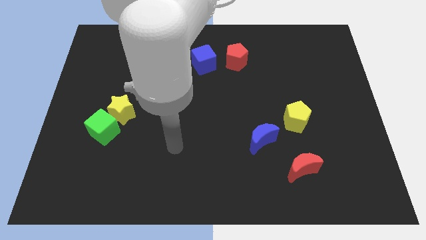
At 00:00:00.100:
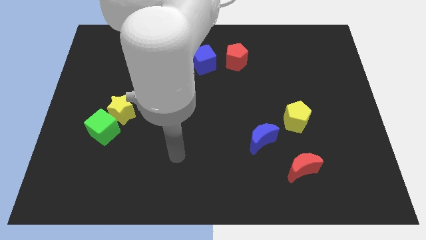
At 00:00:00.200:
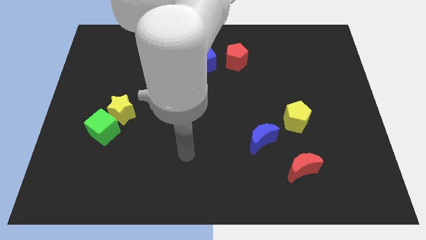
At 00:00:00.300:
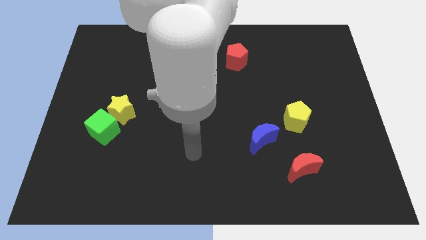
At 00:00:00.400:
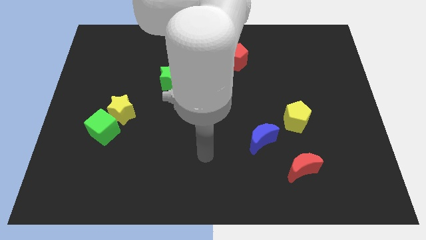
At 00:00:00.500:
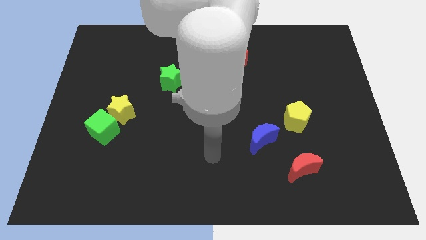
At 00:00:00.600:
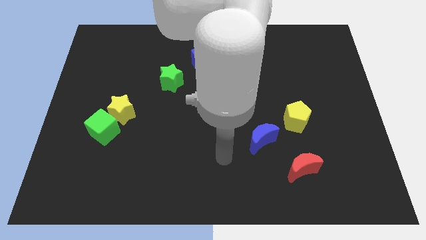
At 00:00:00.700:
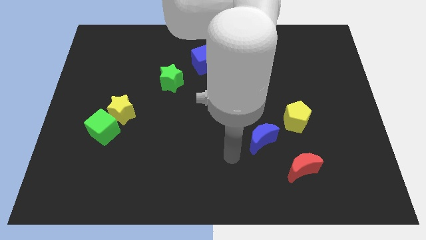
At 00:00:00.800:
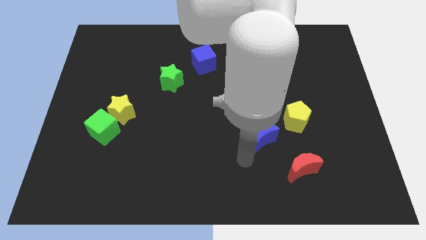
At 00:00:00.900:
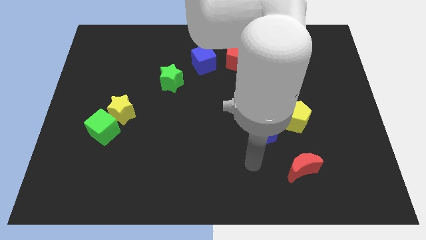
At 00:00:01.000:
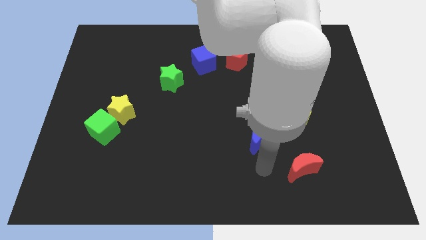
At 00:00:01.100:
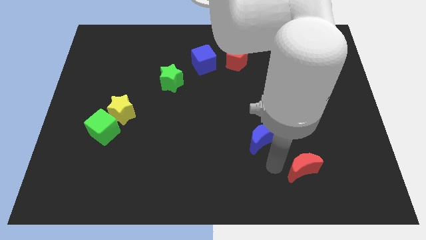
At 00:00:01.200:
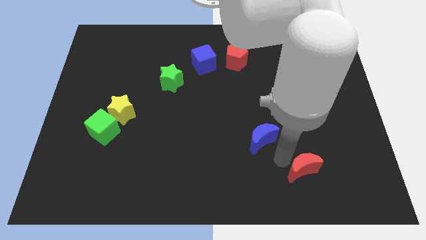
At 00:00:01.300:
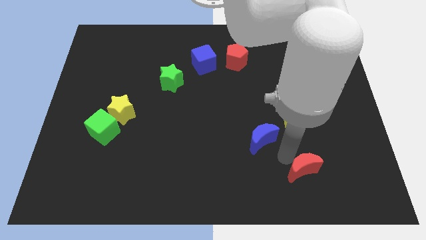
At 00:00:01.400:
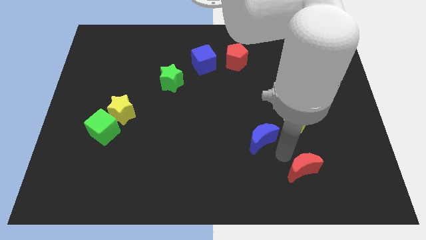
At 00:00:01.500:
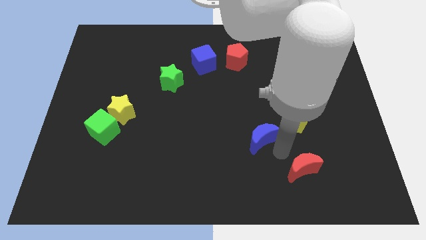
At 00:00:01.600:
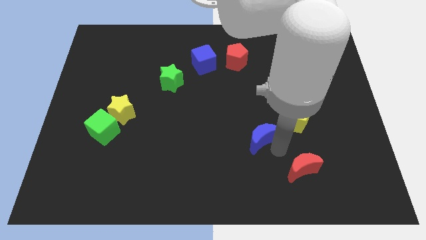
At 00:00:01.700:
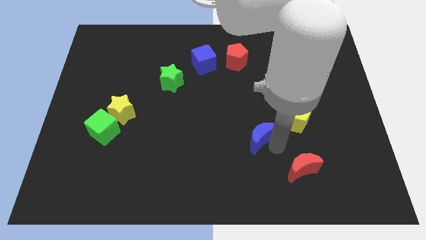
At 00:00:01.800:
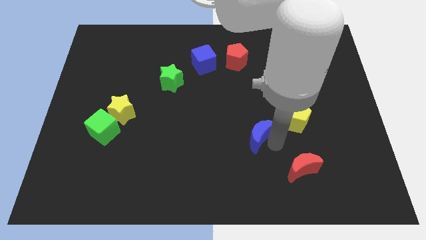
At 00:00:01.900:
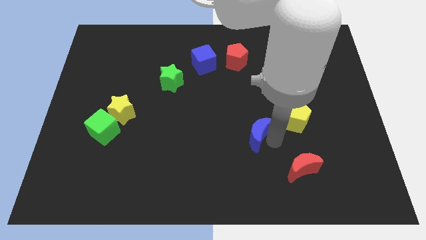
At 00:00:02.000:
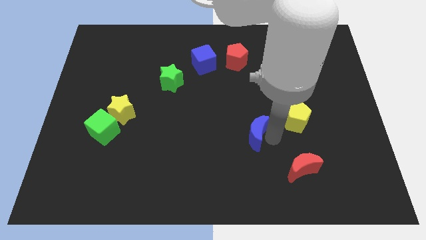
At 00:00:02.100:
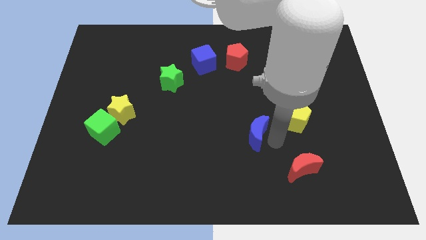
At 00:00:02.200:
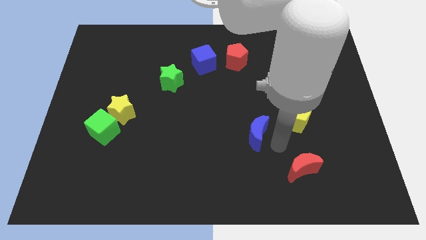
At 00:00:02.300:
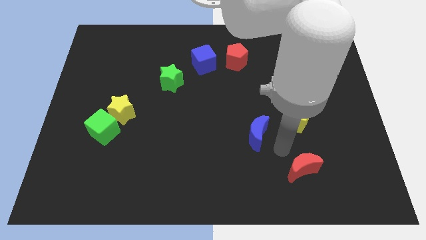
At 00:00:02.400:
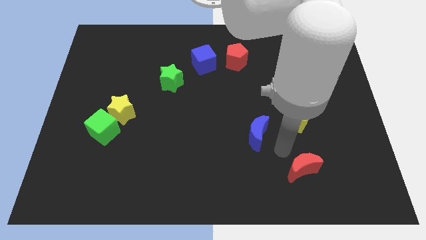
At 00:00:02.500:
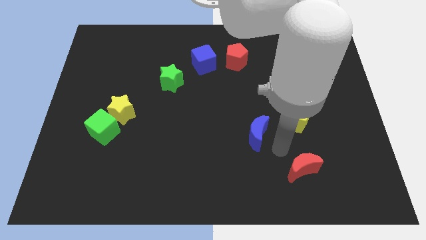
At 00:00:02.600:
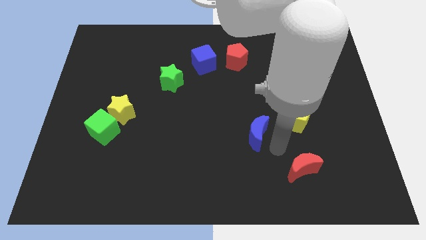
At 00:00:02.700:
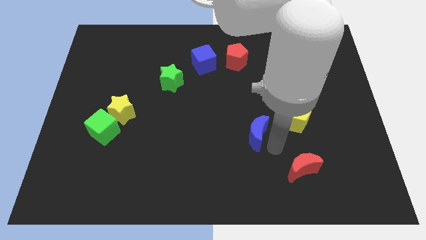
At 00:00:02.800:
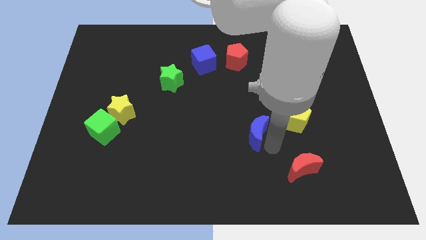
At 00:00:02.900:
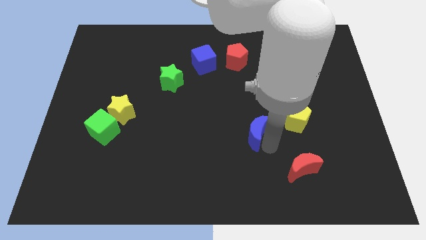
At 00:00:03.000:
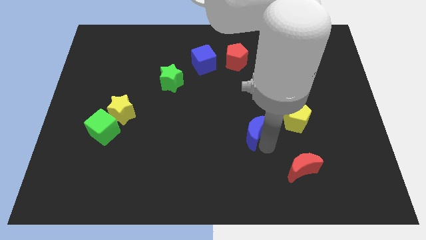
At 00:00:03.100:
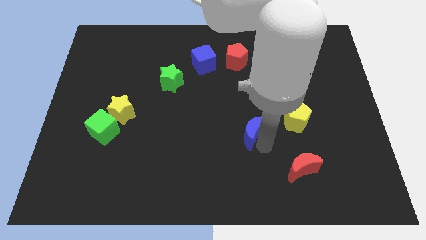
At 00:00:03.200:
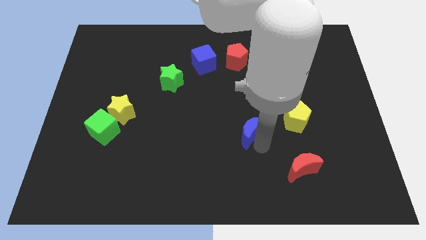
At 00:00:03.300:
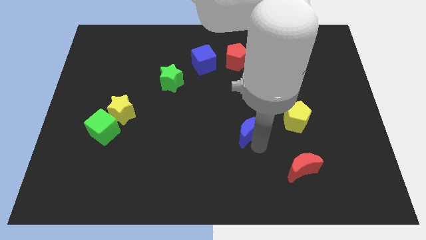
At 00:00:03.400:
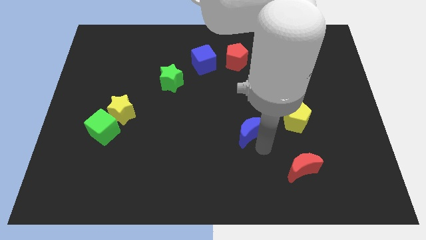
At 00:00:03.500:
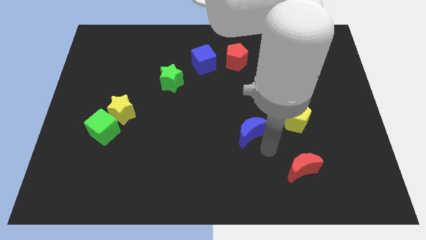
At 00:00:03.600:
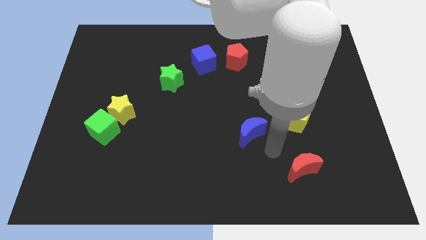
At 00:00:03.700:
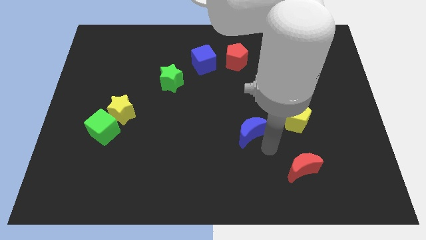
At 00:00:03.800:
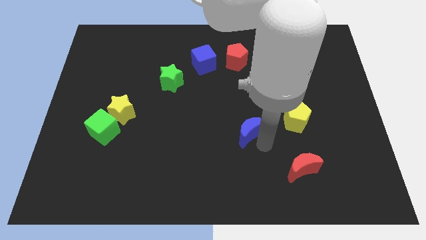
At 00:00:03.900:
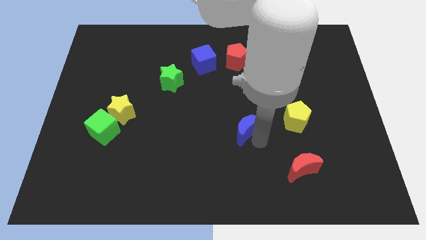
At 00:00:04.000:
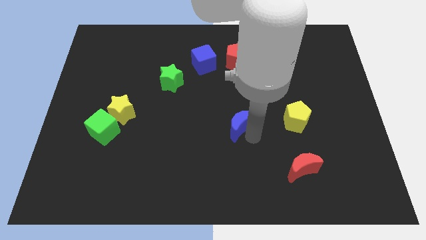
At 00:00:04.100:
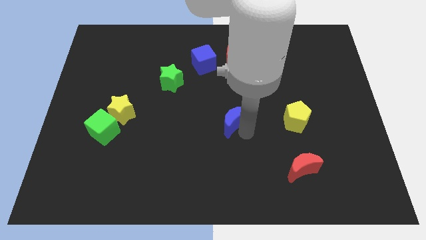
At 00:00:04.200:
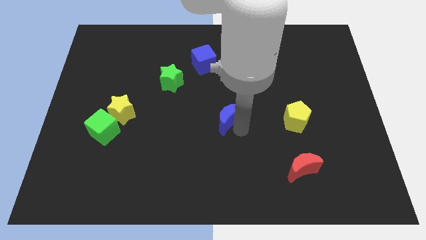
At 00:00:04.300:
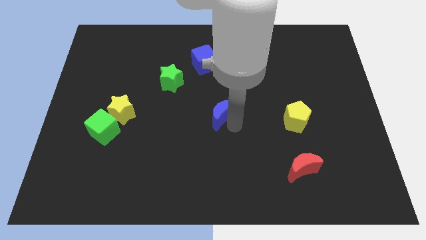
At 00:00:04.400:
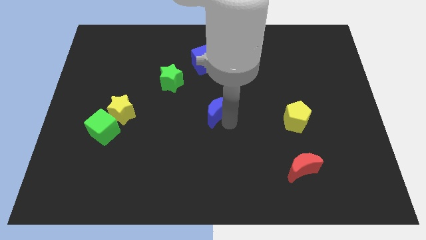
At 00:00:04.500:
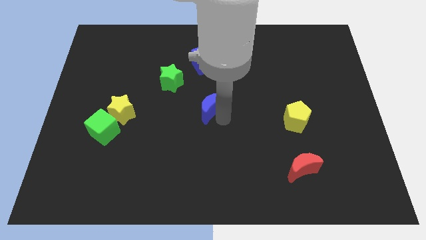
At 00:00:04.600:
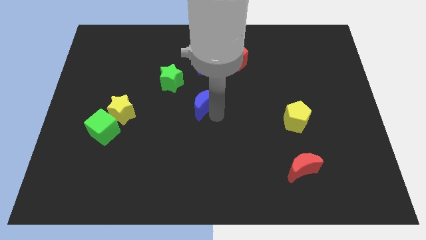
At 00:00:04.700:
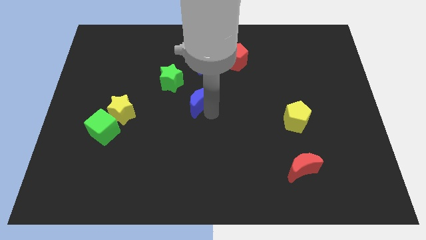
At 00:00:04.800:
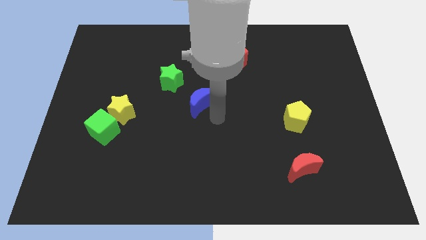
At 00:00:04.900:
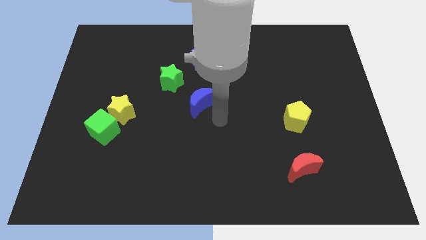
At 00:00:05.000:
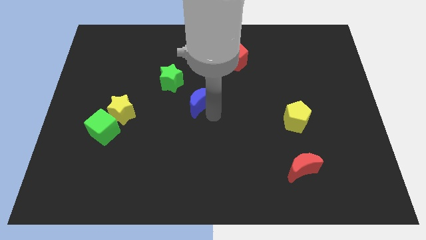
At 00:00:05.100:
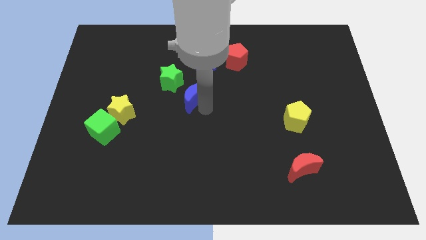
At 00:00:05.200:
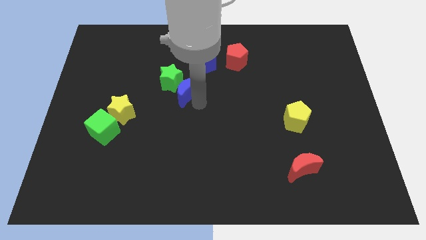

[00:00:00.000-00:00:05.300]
move the blue moon to the green star

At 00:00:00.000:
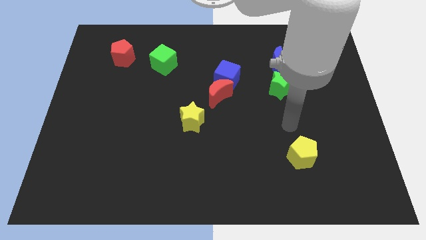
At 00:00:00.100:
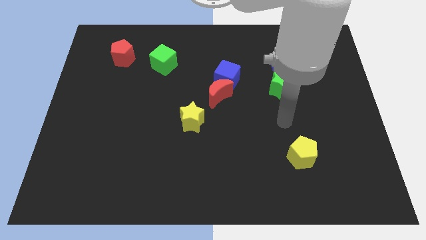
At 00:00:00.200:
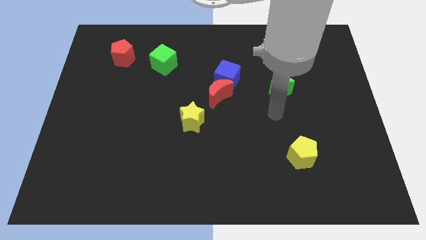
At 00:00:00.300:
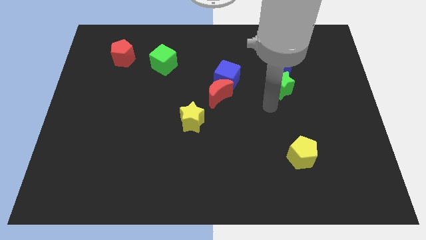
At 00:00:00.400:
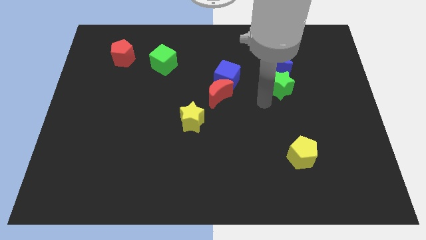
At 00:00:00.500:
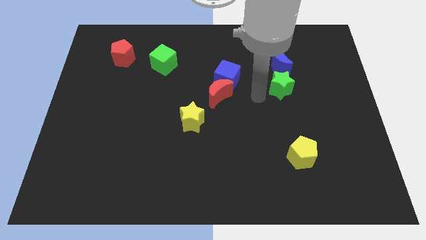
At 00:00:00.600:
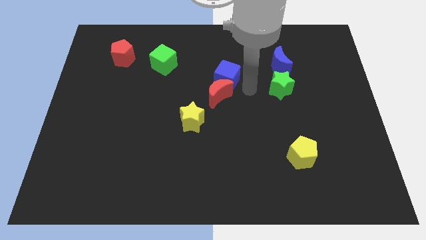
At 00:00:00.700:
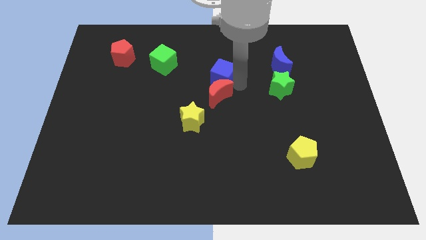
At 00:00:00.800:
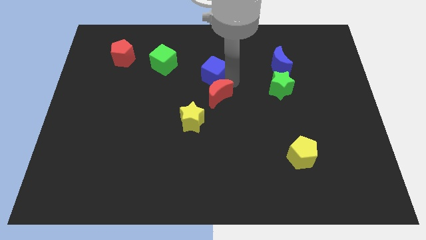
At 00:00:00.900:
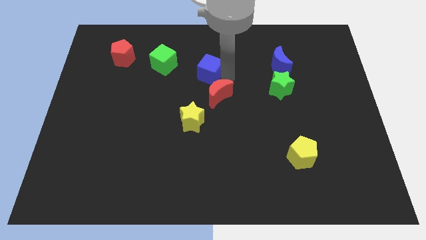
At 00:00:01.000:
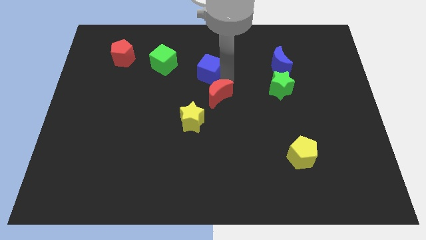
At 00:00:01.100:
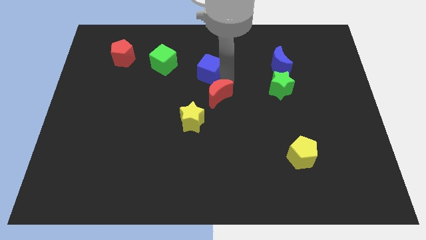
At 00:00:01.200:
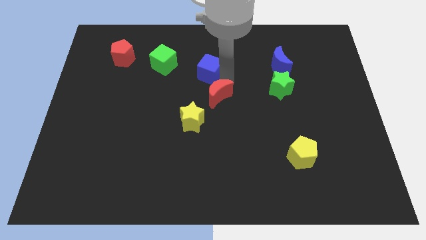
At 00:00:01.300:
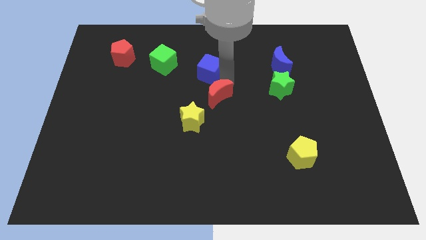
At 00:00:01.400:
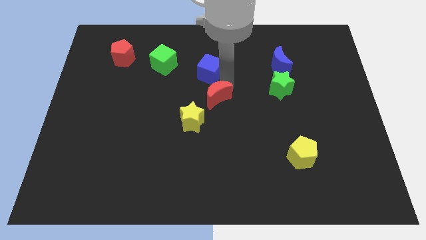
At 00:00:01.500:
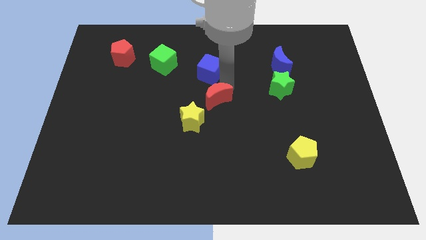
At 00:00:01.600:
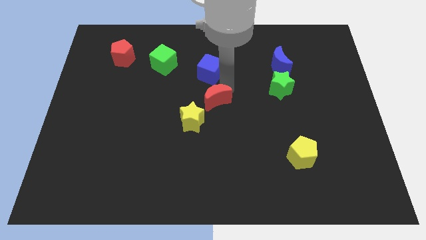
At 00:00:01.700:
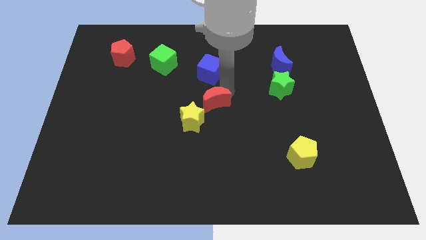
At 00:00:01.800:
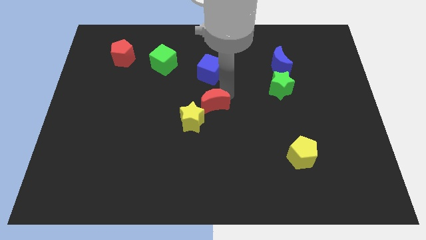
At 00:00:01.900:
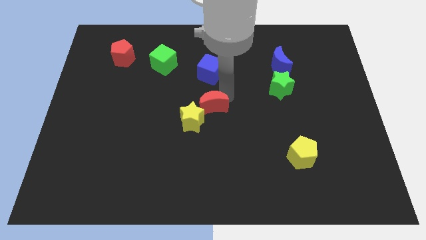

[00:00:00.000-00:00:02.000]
push the red moon next to the yellow star
